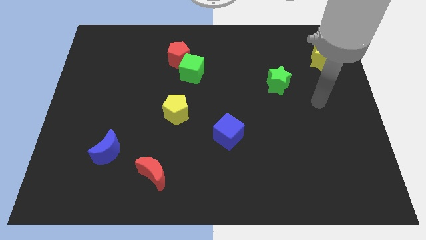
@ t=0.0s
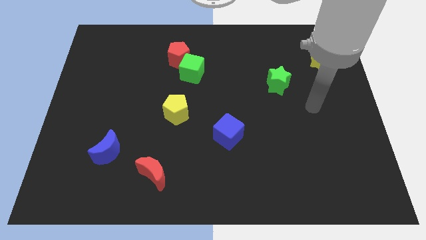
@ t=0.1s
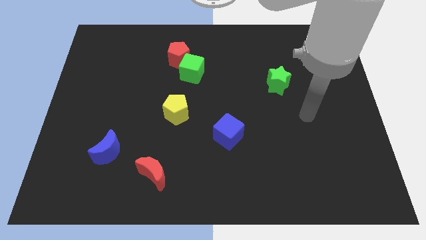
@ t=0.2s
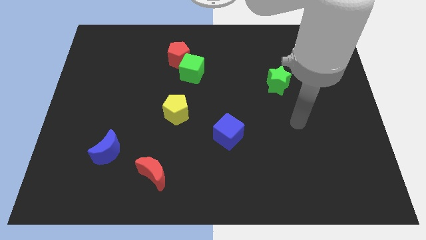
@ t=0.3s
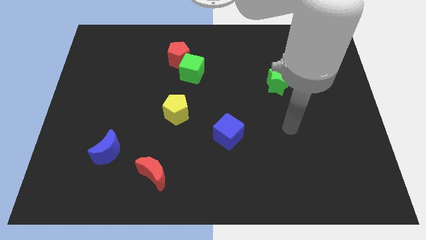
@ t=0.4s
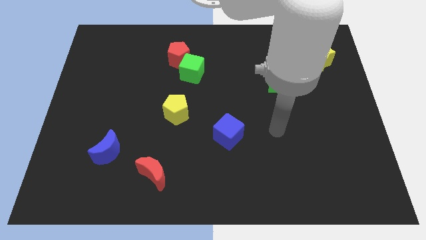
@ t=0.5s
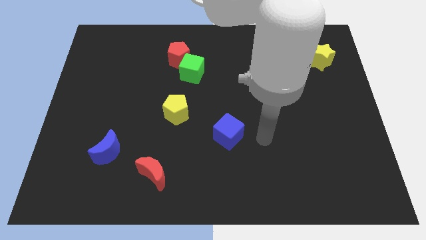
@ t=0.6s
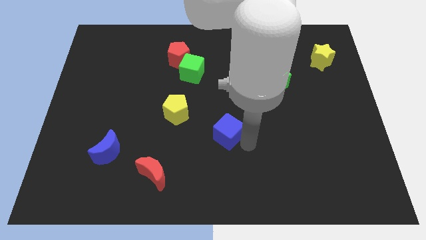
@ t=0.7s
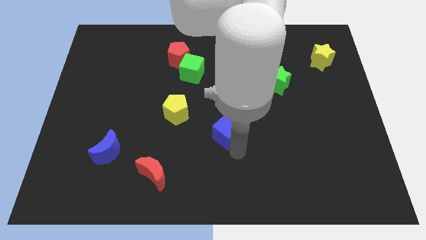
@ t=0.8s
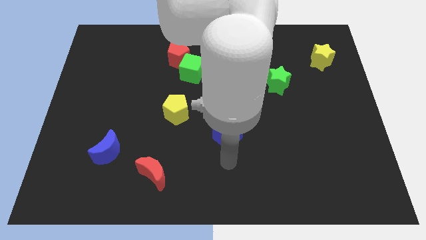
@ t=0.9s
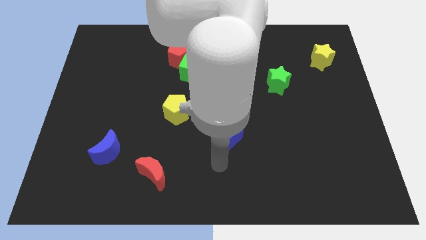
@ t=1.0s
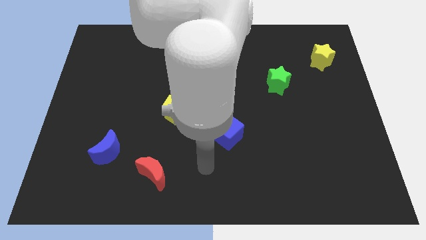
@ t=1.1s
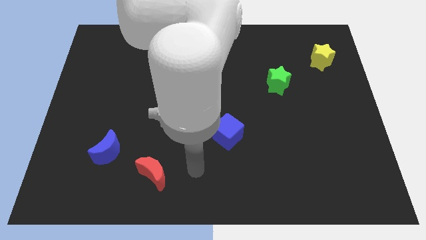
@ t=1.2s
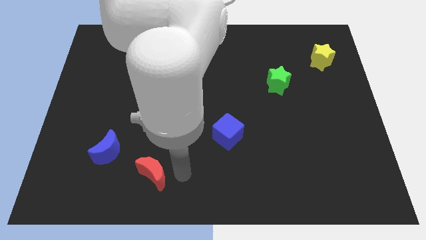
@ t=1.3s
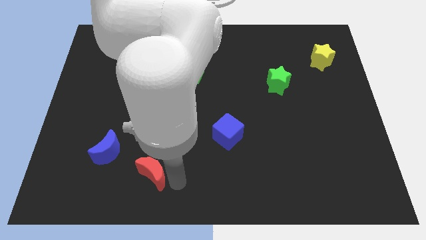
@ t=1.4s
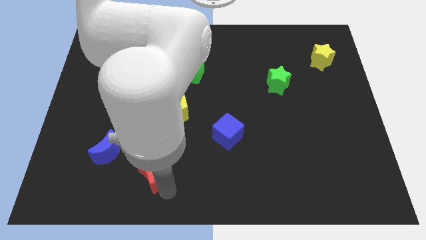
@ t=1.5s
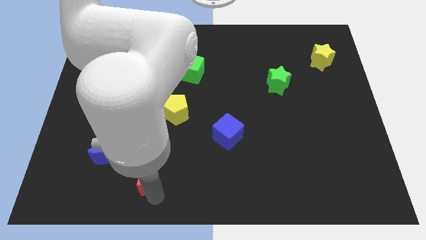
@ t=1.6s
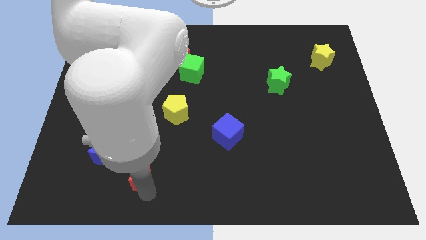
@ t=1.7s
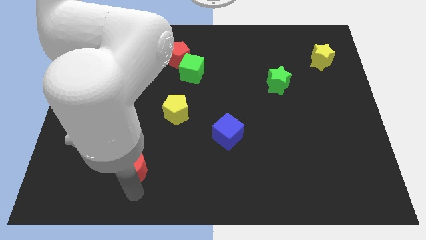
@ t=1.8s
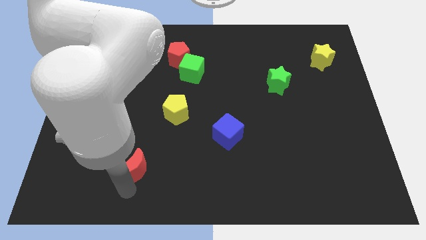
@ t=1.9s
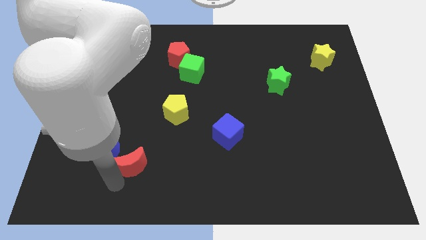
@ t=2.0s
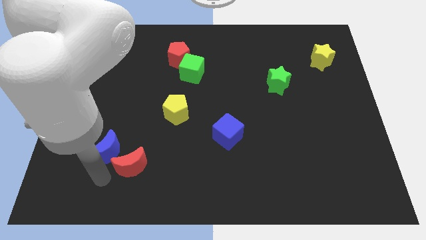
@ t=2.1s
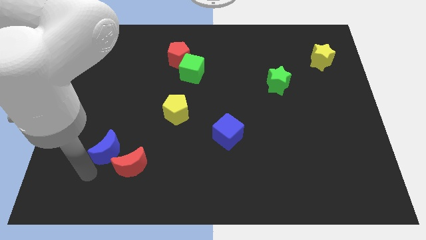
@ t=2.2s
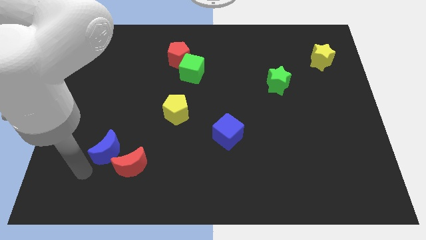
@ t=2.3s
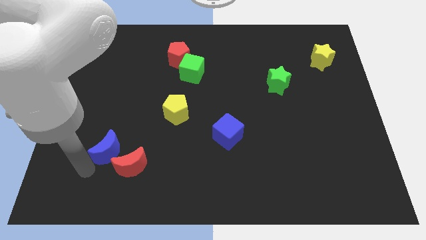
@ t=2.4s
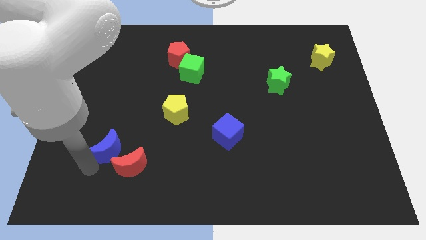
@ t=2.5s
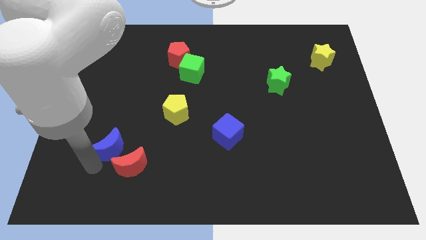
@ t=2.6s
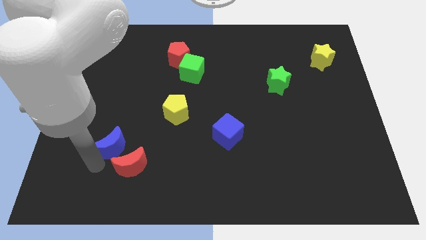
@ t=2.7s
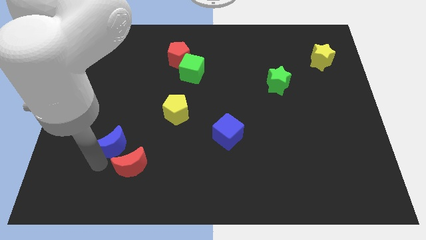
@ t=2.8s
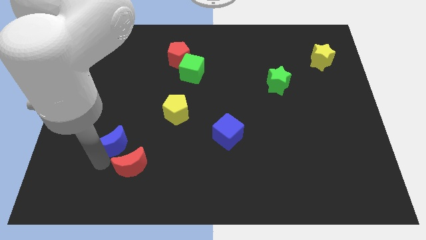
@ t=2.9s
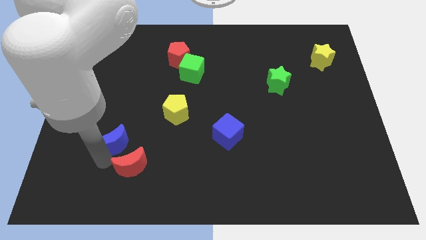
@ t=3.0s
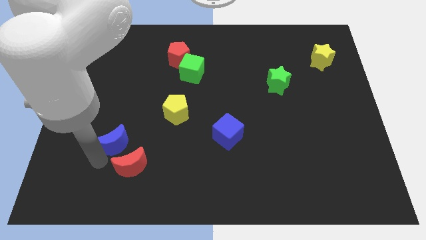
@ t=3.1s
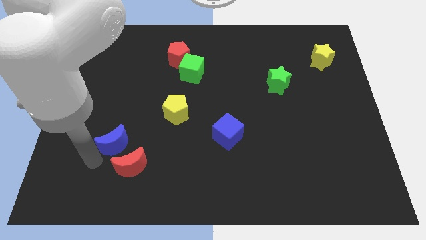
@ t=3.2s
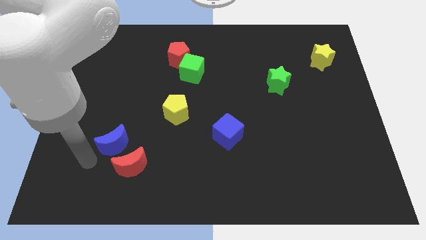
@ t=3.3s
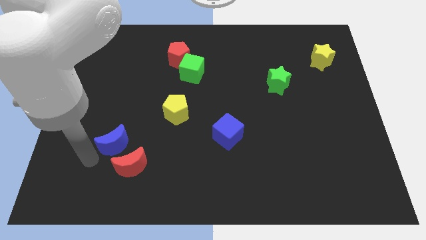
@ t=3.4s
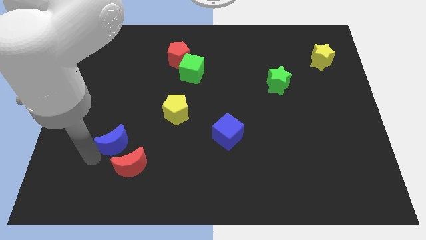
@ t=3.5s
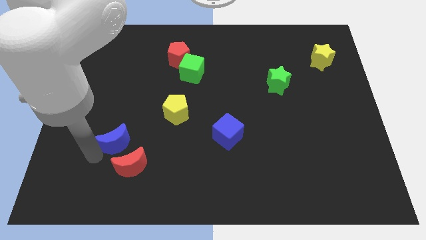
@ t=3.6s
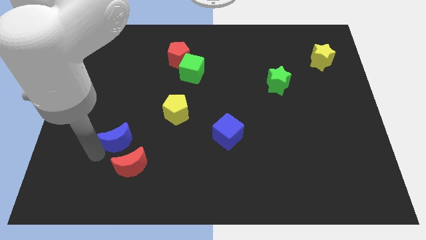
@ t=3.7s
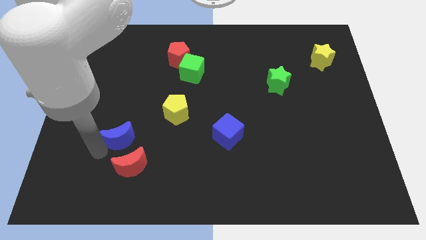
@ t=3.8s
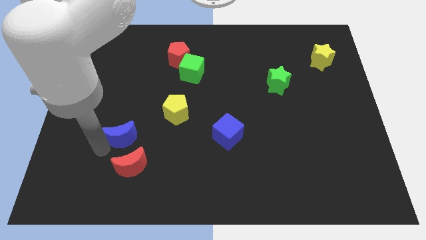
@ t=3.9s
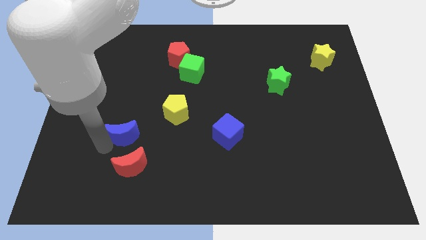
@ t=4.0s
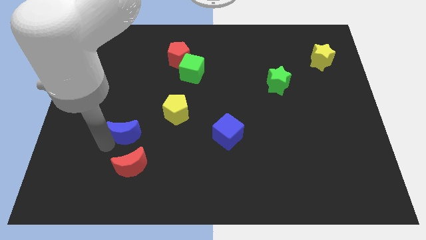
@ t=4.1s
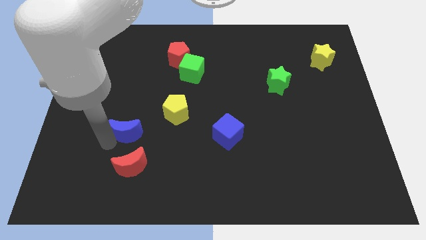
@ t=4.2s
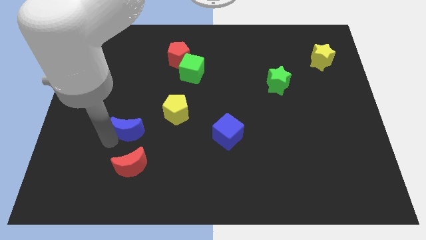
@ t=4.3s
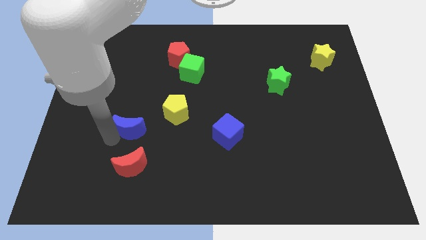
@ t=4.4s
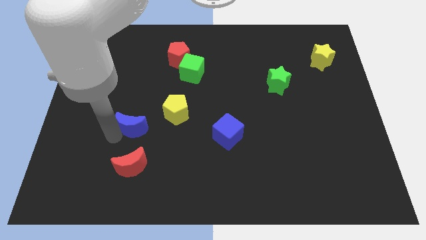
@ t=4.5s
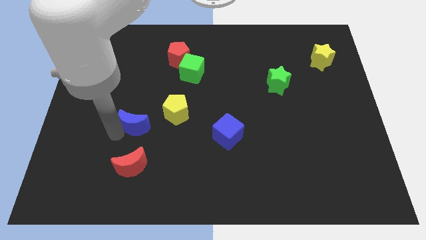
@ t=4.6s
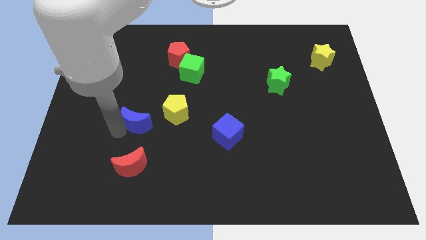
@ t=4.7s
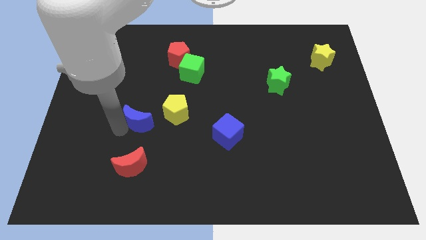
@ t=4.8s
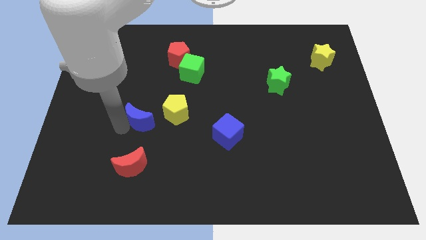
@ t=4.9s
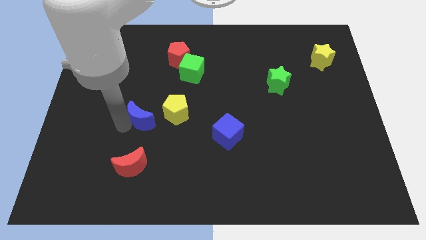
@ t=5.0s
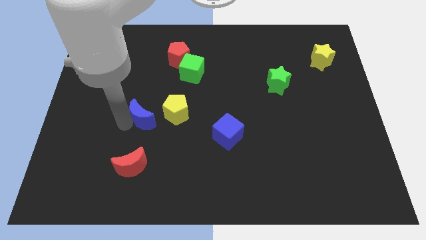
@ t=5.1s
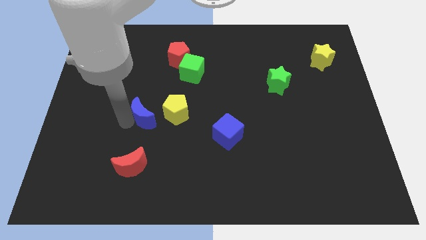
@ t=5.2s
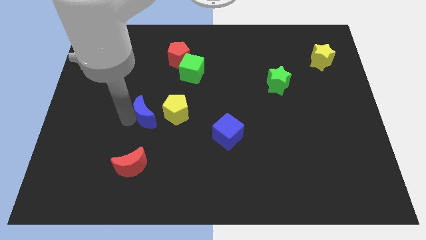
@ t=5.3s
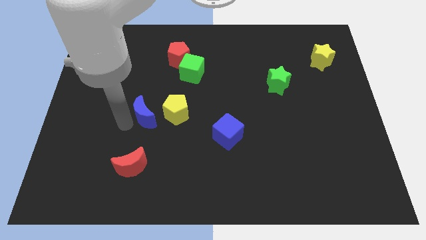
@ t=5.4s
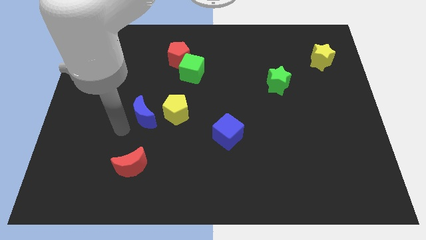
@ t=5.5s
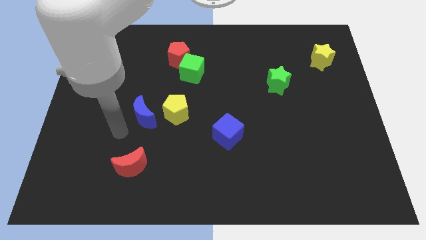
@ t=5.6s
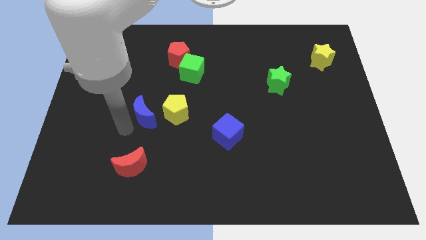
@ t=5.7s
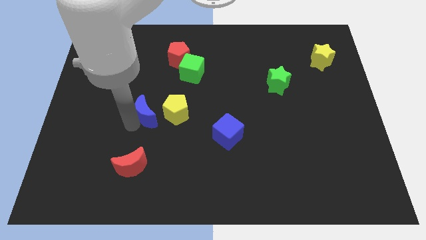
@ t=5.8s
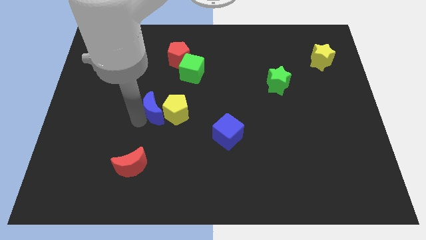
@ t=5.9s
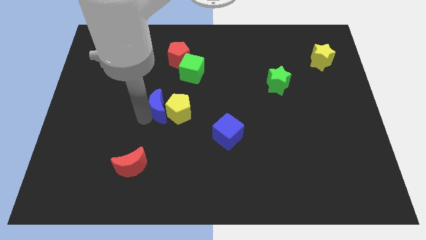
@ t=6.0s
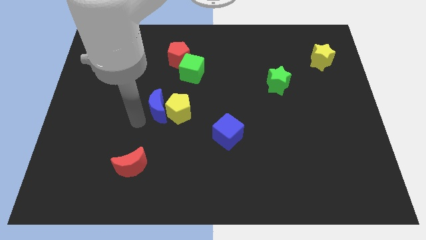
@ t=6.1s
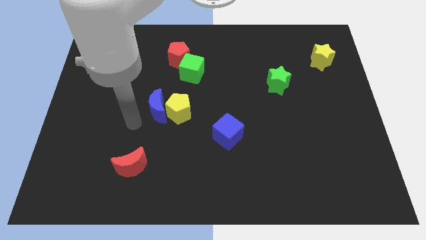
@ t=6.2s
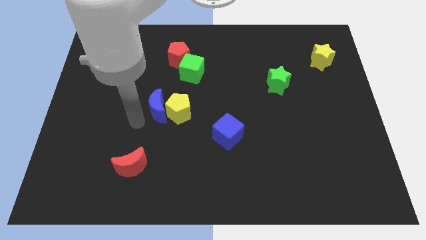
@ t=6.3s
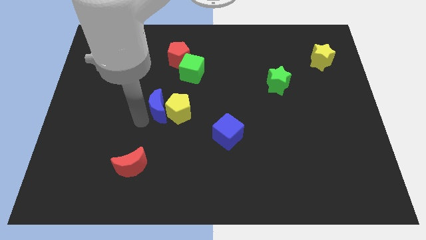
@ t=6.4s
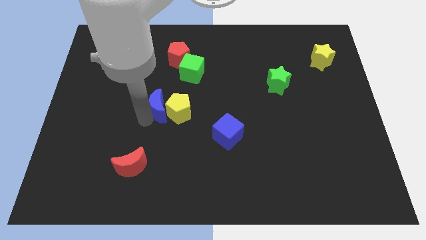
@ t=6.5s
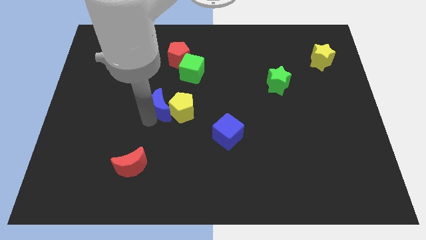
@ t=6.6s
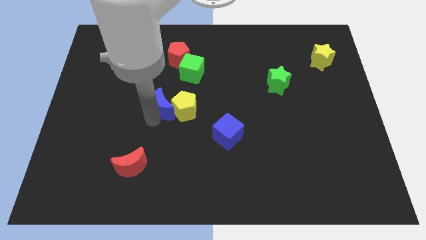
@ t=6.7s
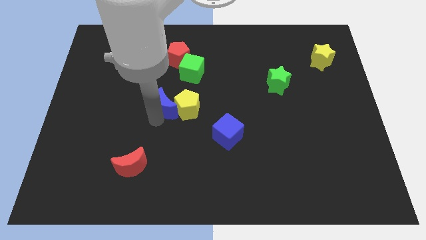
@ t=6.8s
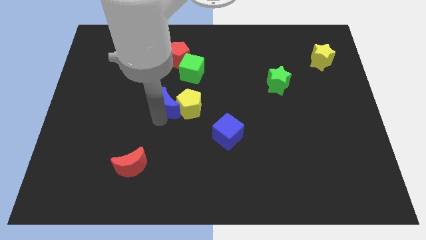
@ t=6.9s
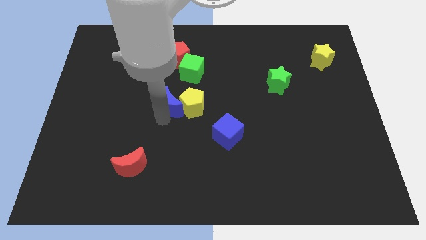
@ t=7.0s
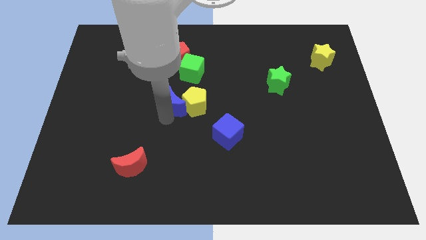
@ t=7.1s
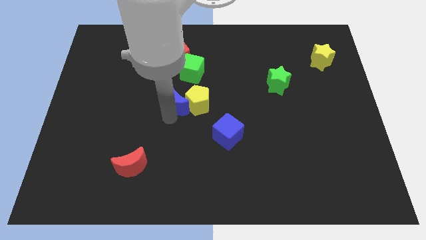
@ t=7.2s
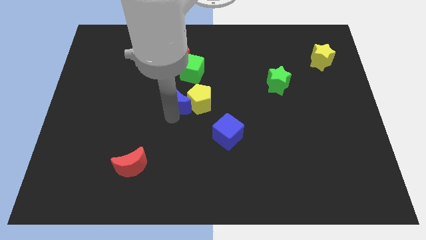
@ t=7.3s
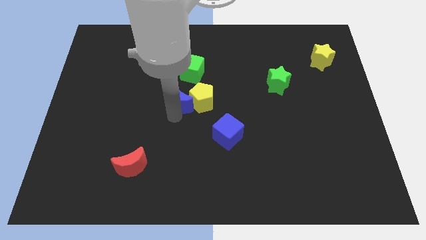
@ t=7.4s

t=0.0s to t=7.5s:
push the blue moon diagonally upwards and to the right

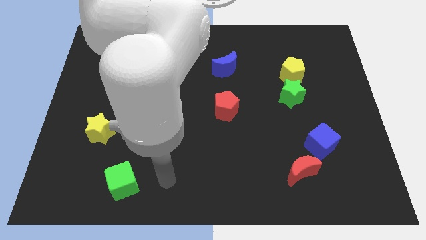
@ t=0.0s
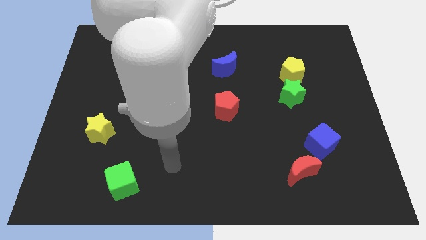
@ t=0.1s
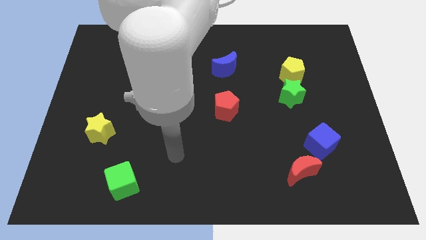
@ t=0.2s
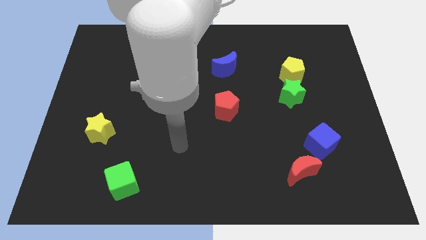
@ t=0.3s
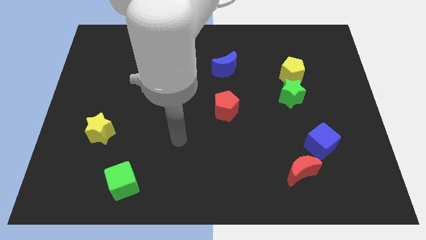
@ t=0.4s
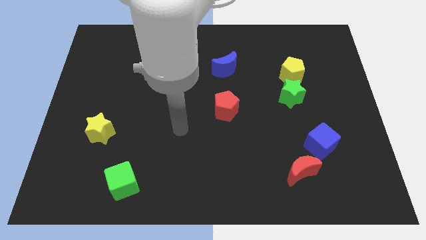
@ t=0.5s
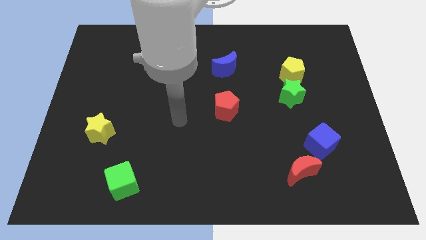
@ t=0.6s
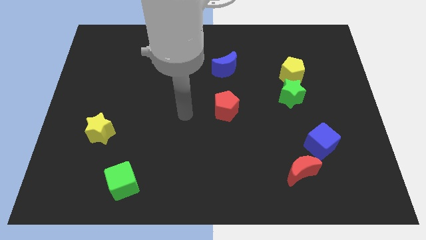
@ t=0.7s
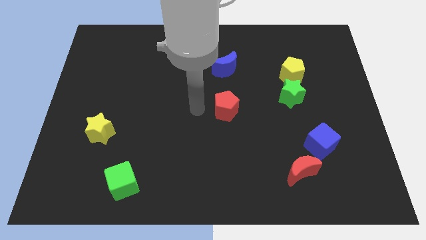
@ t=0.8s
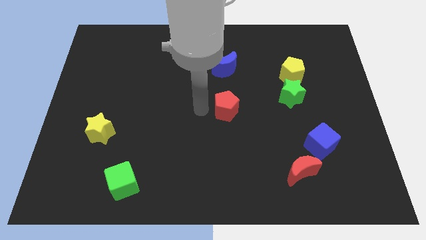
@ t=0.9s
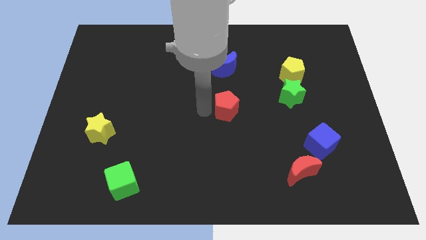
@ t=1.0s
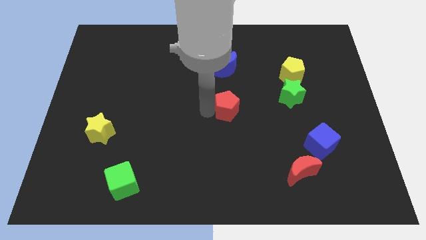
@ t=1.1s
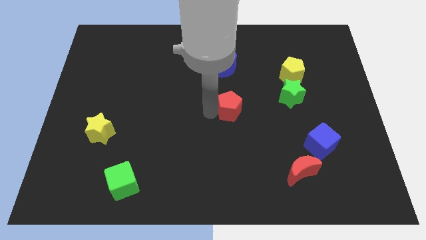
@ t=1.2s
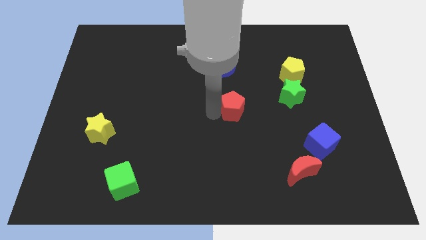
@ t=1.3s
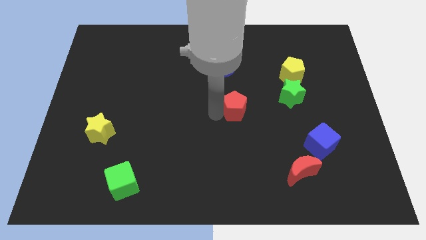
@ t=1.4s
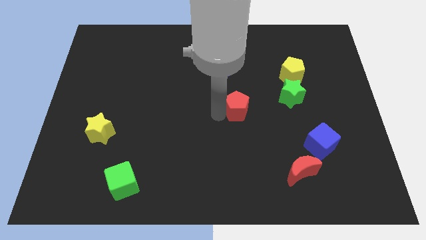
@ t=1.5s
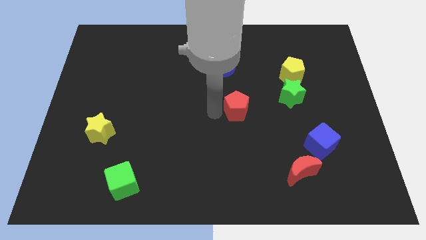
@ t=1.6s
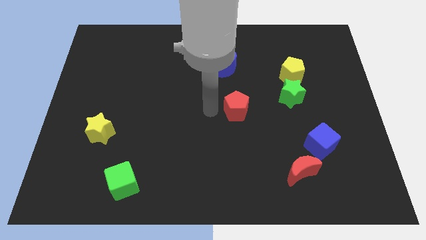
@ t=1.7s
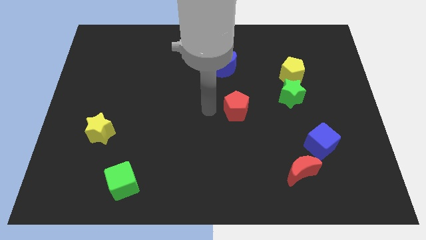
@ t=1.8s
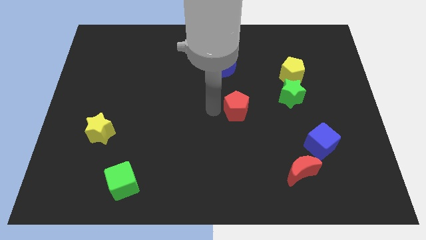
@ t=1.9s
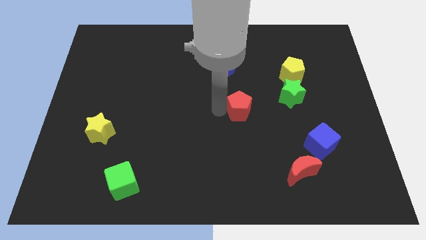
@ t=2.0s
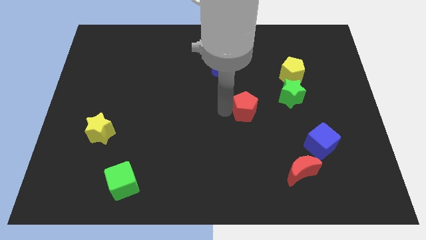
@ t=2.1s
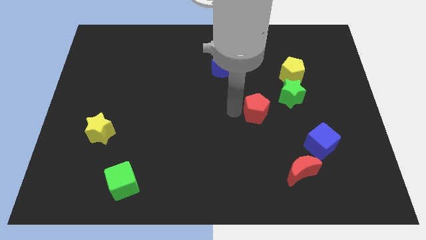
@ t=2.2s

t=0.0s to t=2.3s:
push the red pentagon a bit to the right
